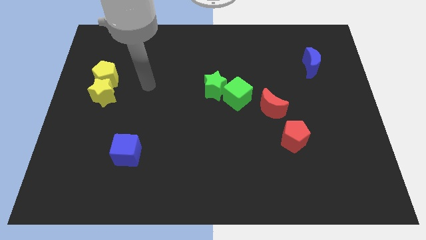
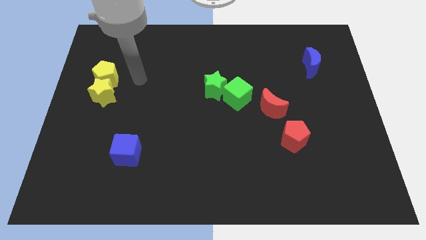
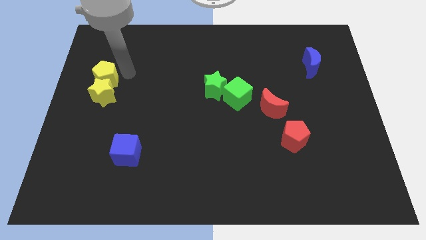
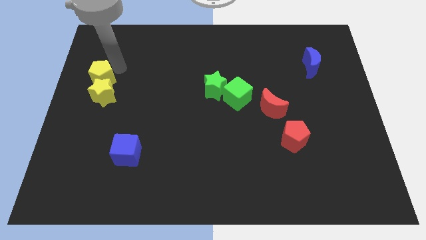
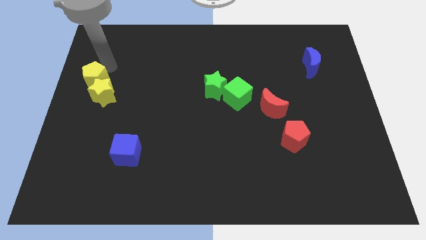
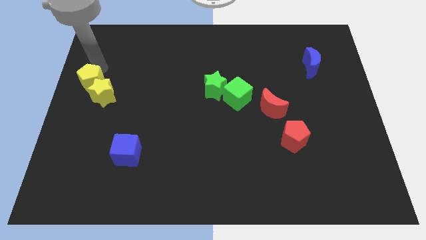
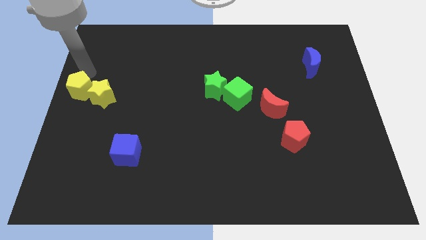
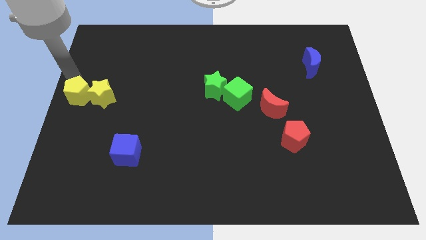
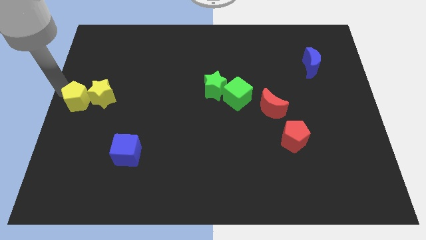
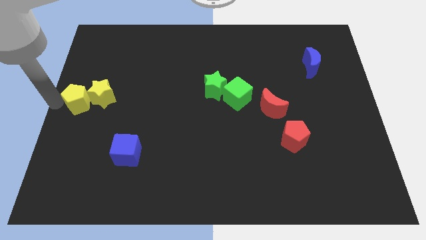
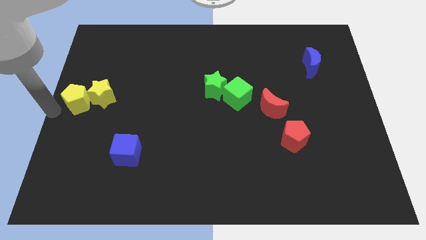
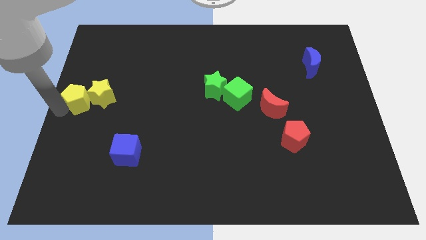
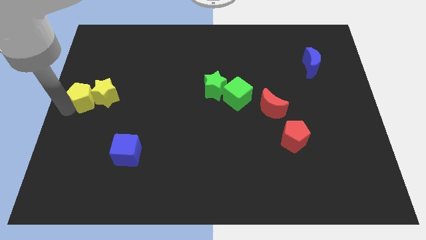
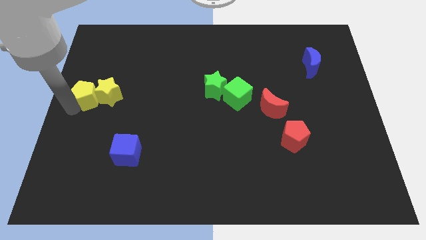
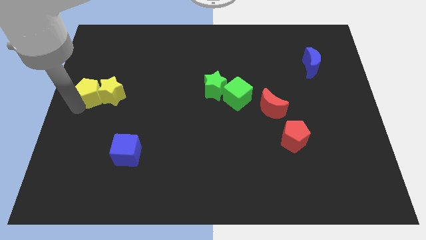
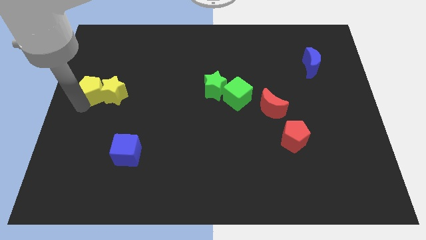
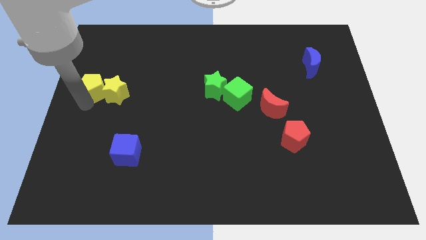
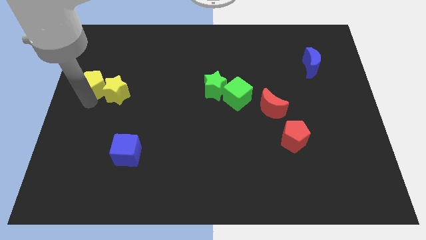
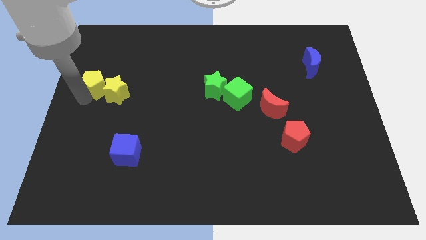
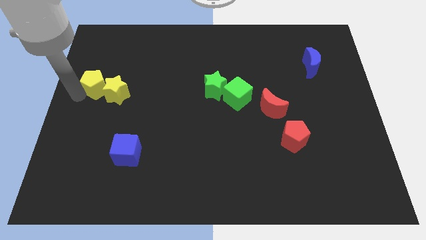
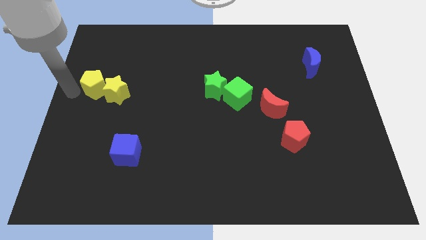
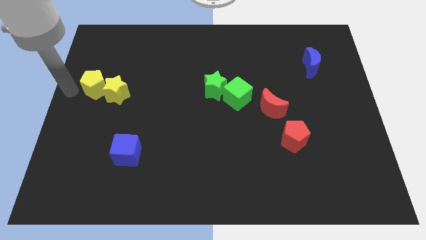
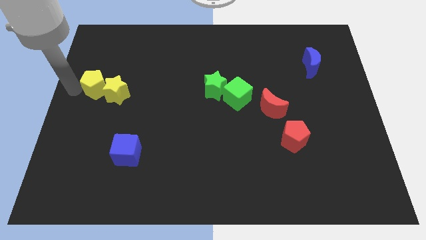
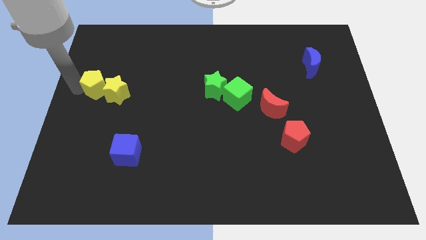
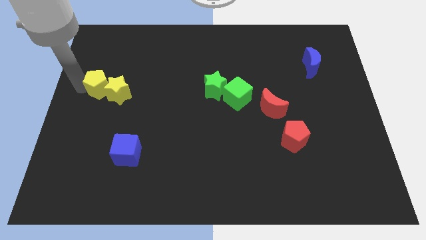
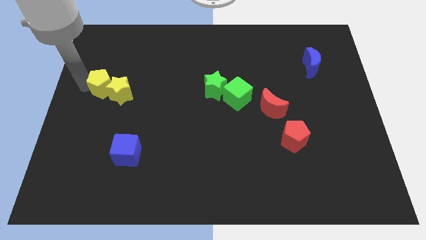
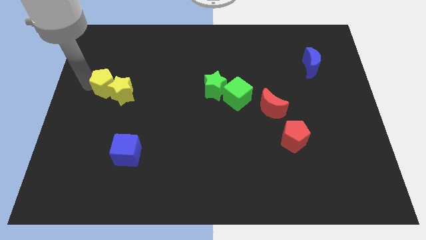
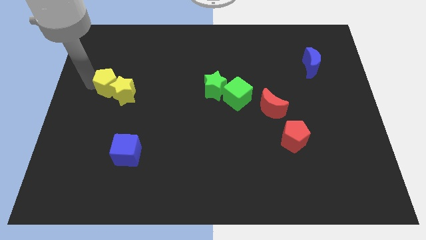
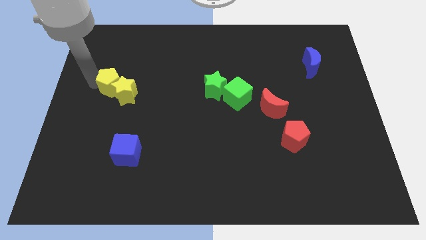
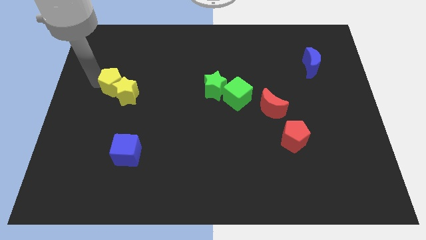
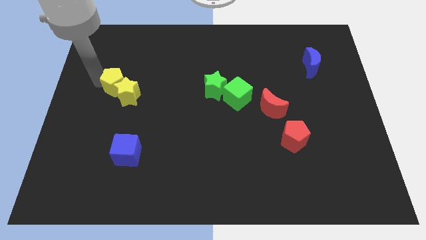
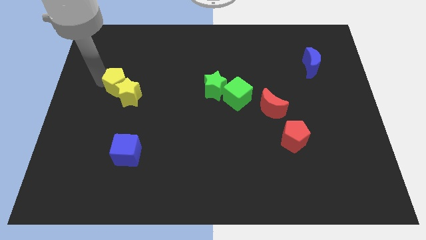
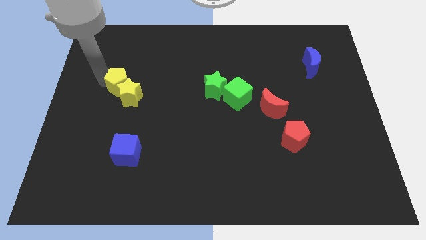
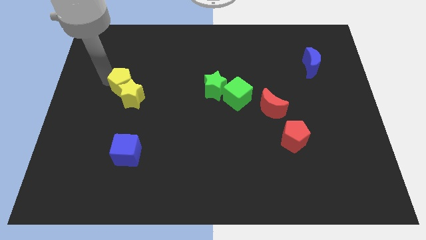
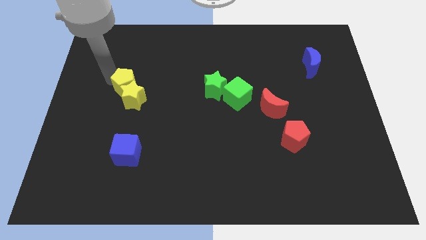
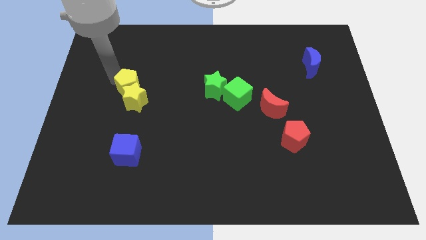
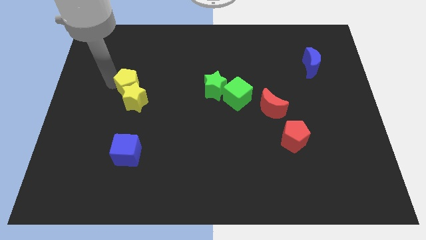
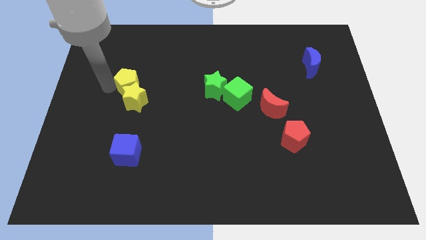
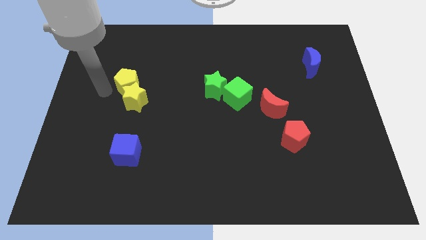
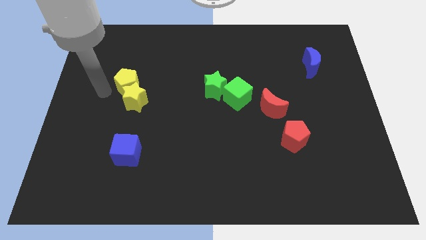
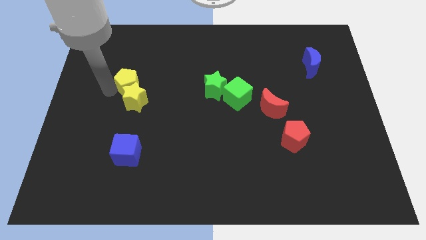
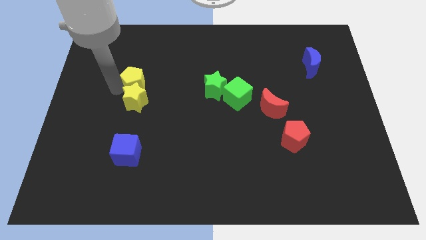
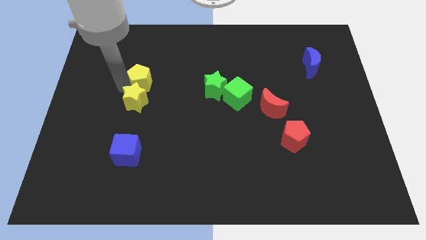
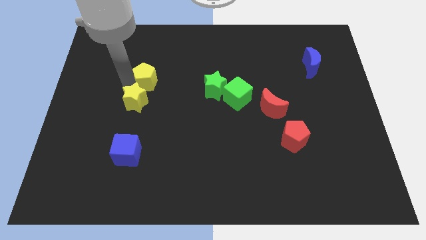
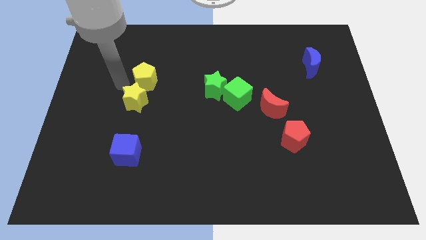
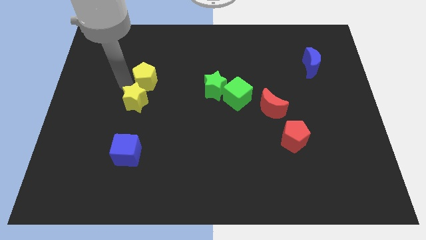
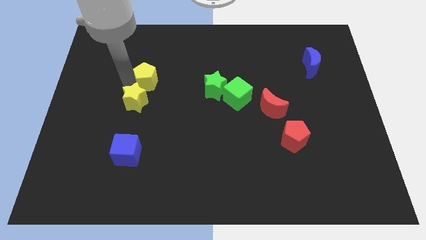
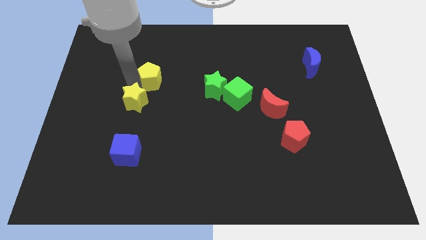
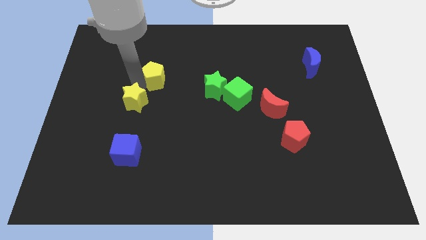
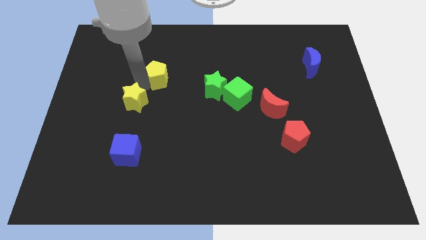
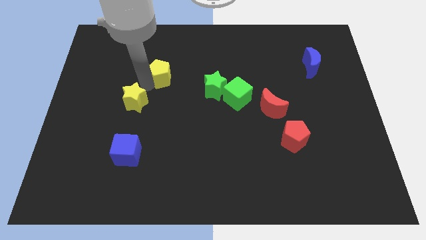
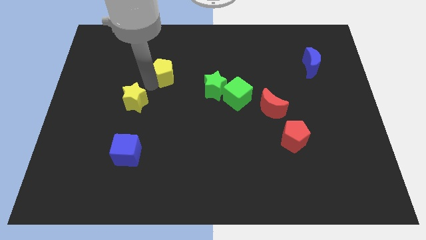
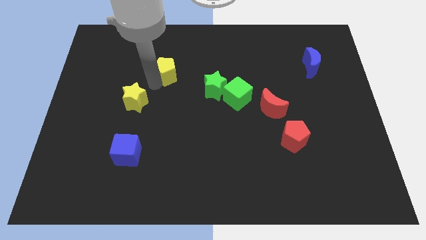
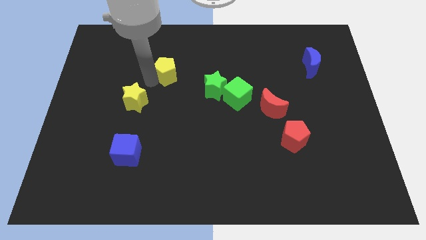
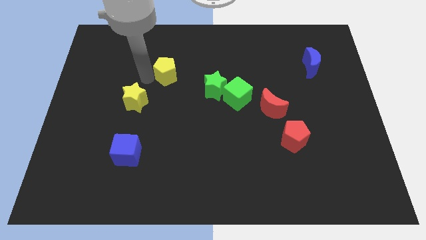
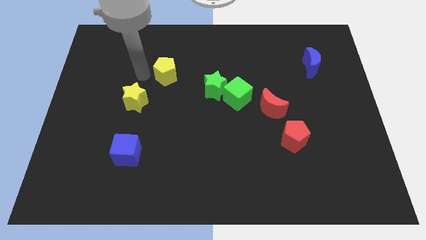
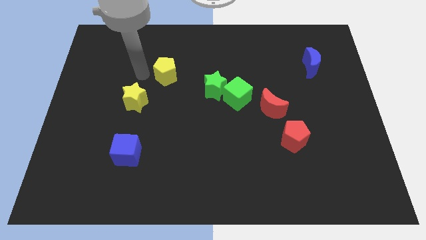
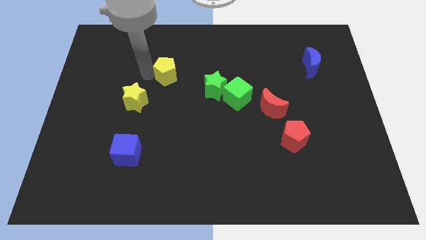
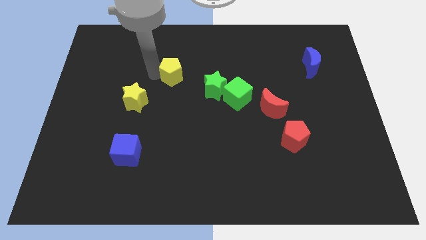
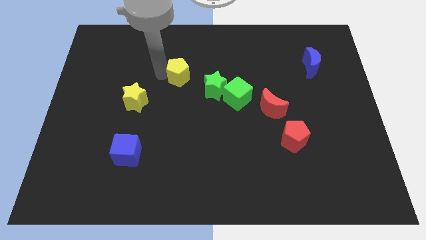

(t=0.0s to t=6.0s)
slide the yellow pentagon to the top left side of the green star

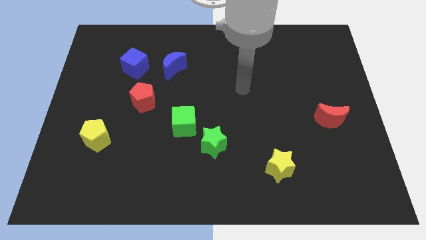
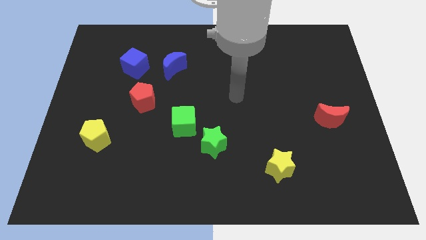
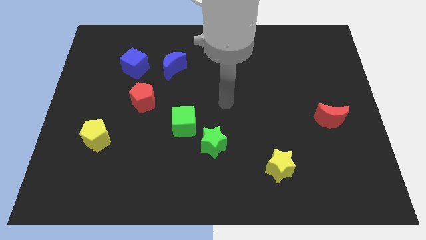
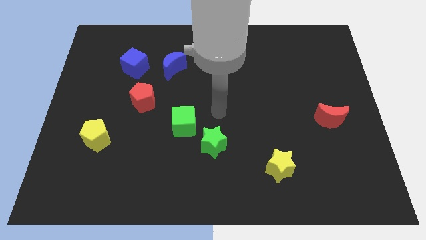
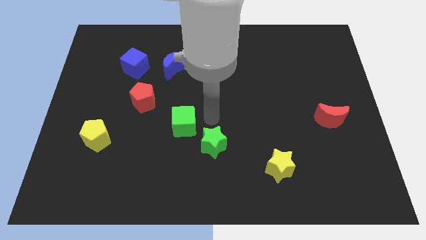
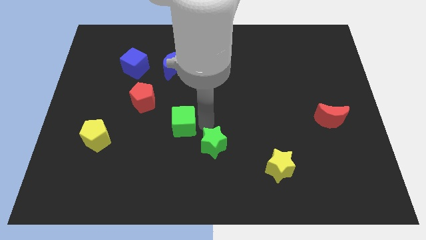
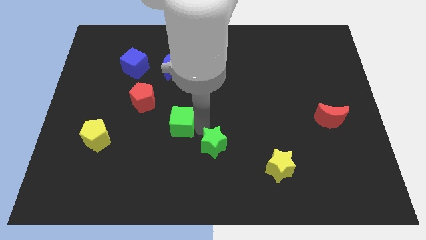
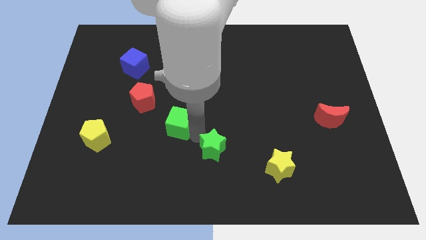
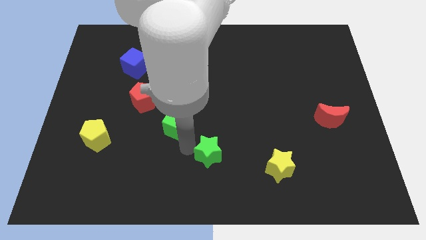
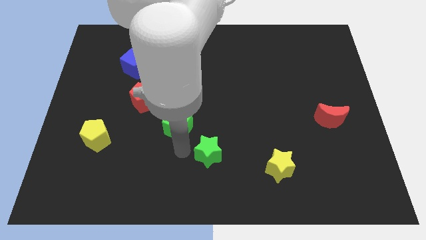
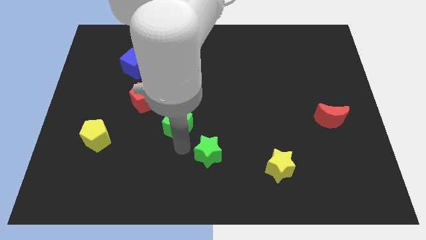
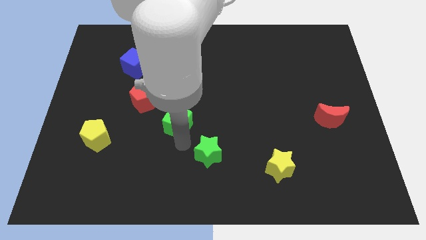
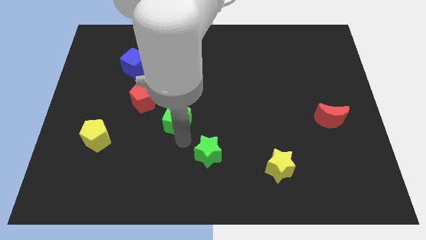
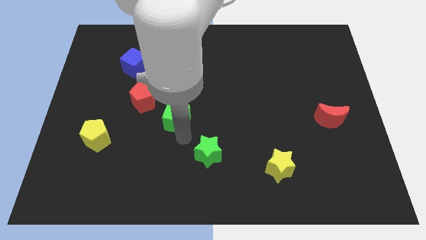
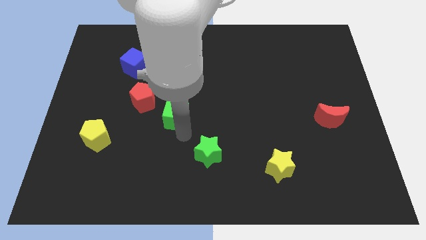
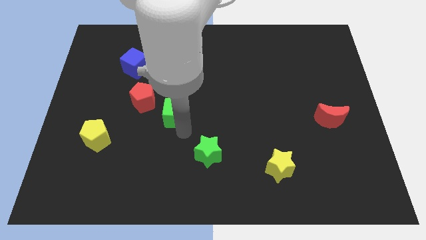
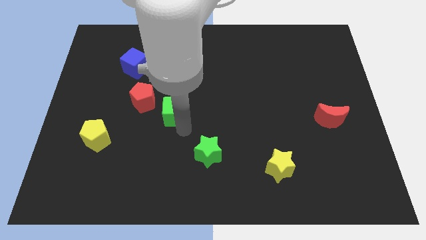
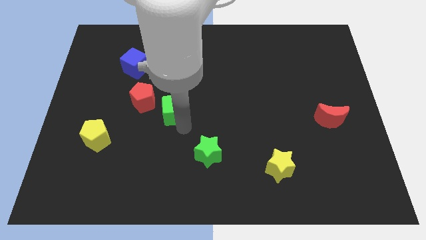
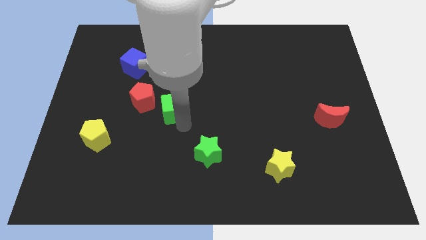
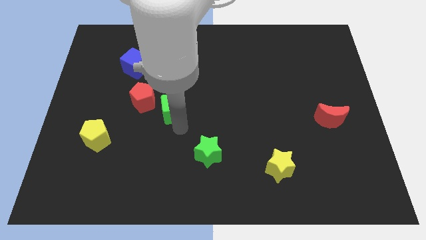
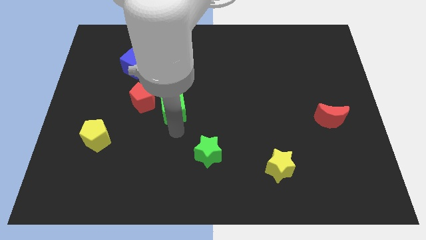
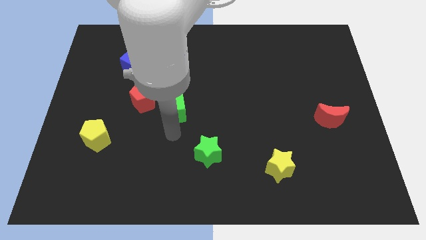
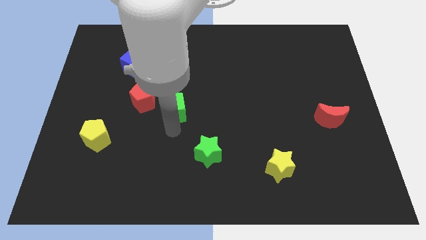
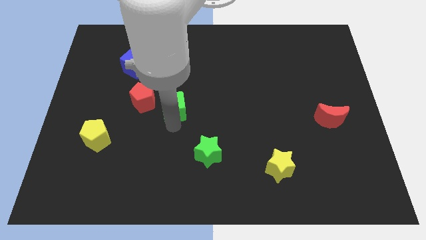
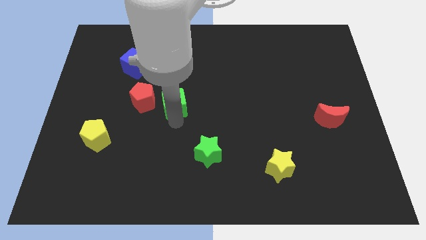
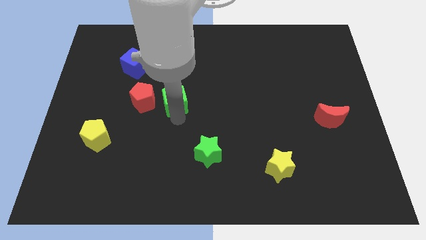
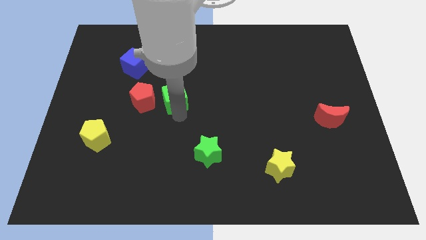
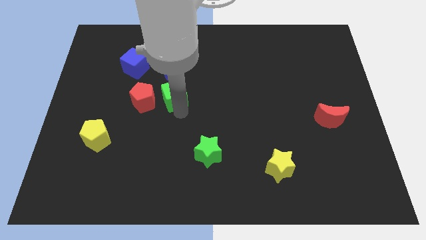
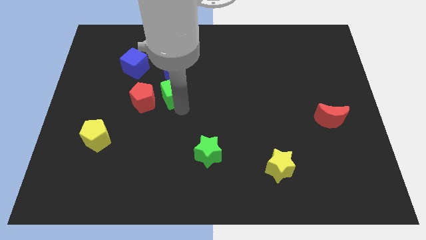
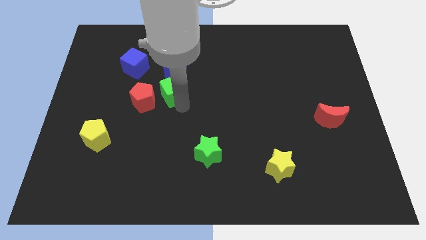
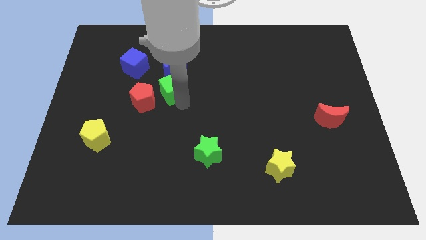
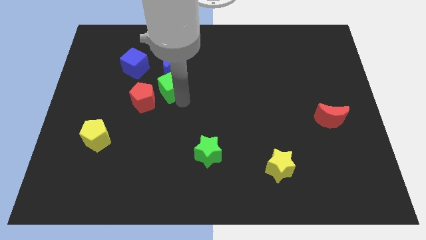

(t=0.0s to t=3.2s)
move the green cube diagonally down and to the right of the blue cube
